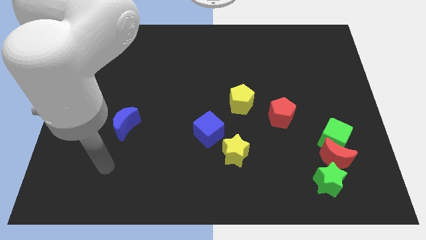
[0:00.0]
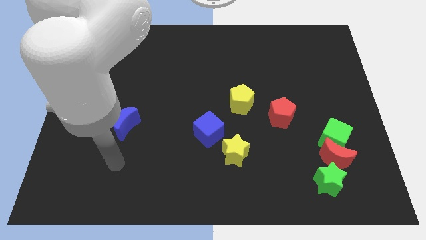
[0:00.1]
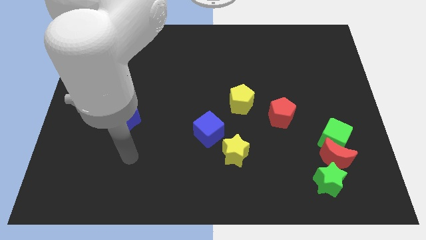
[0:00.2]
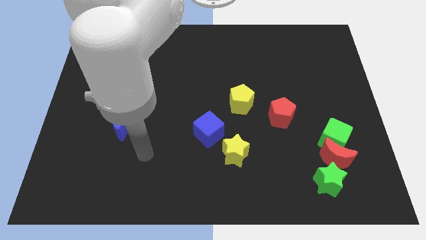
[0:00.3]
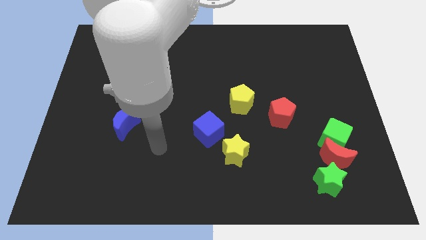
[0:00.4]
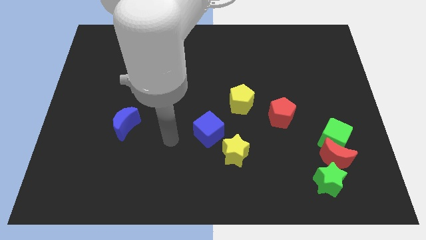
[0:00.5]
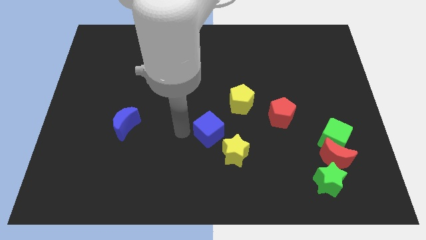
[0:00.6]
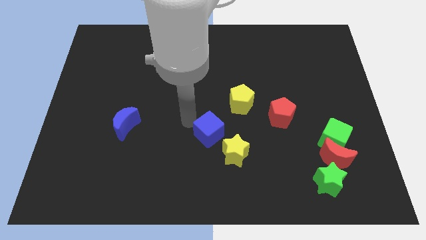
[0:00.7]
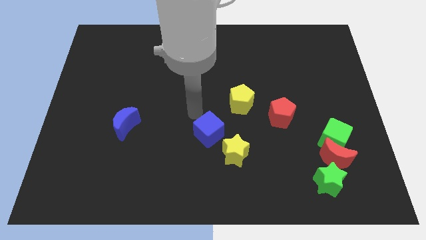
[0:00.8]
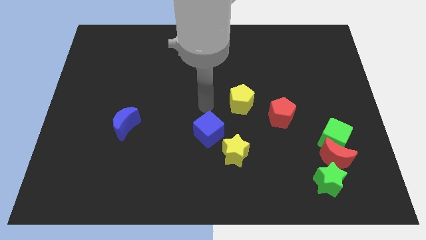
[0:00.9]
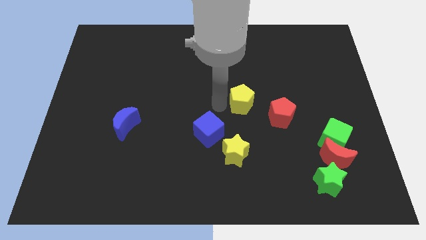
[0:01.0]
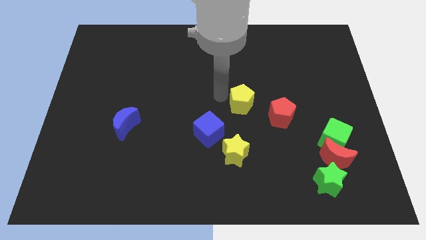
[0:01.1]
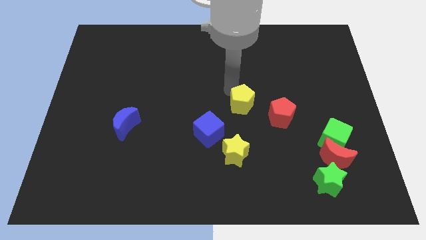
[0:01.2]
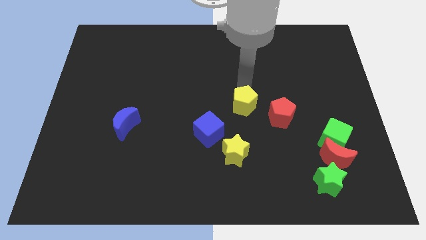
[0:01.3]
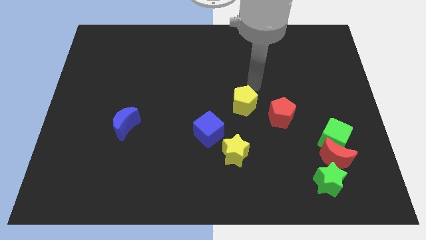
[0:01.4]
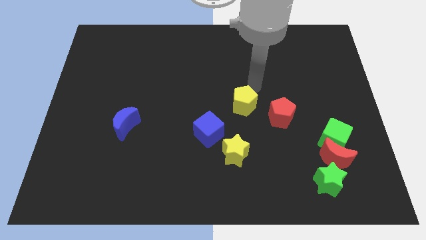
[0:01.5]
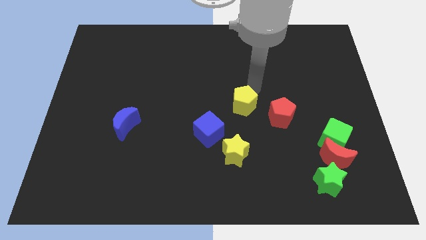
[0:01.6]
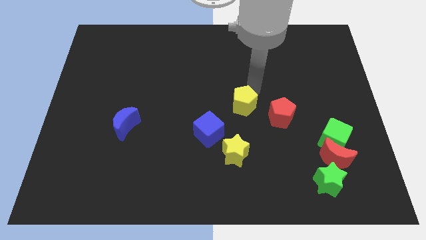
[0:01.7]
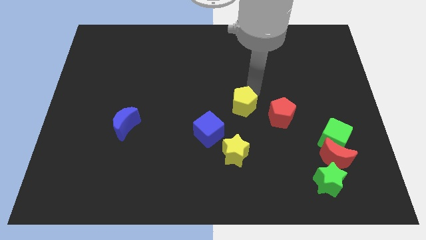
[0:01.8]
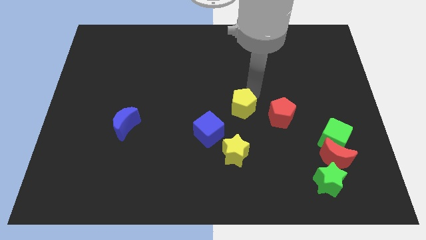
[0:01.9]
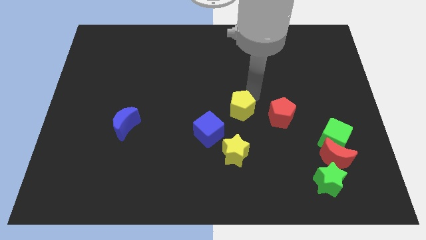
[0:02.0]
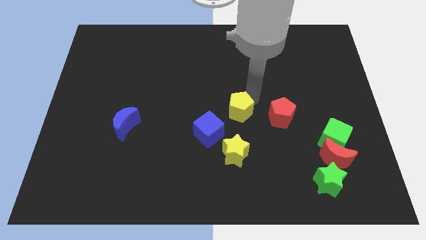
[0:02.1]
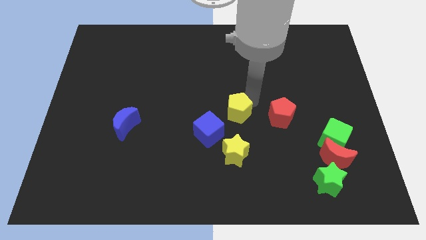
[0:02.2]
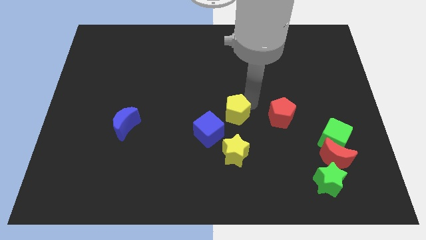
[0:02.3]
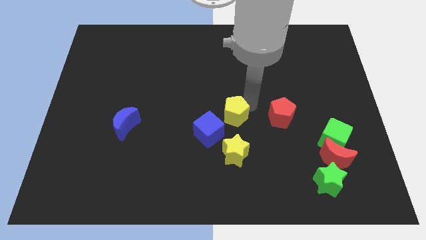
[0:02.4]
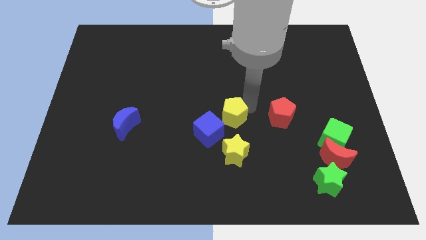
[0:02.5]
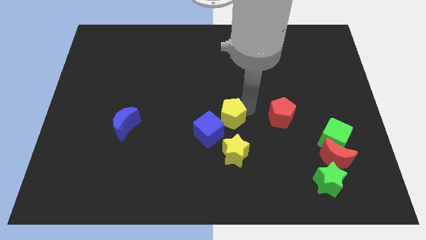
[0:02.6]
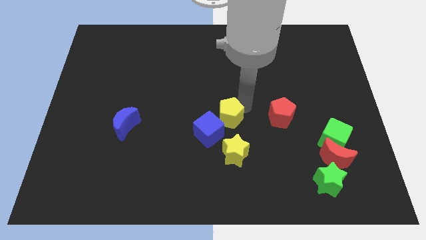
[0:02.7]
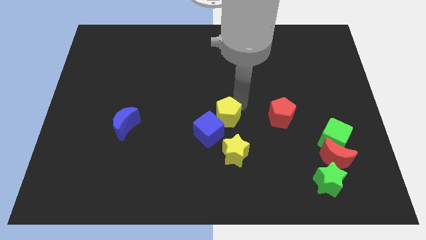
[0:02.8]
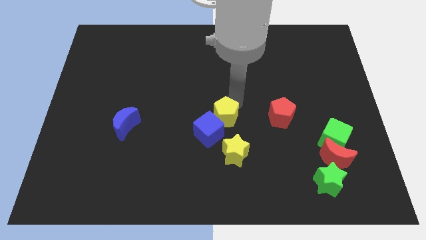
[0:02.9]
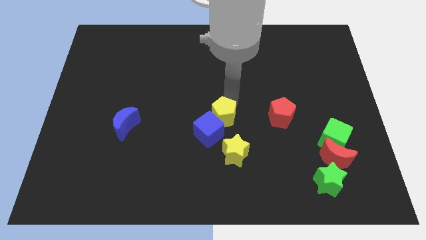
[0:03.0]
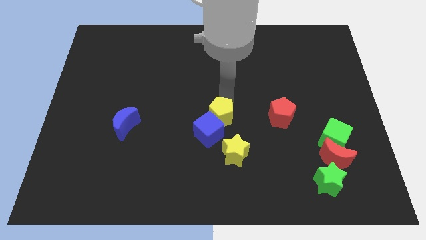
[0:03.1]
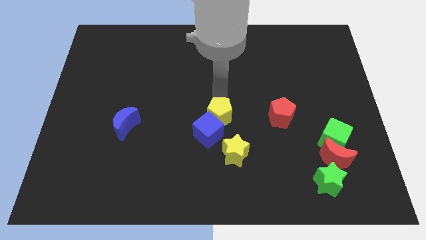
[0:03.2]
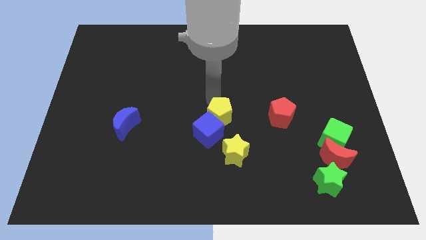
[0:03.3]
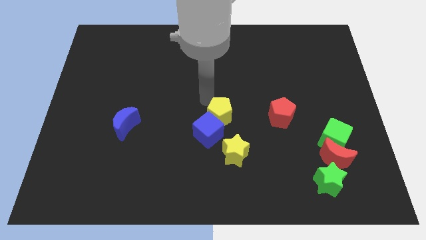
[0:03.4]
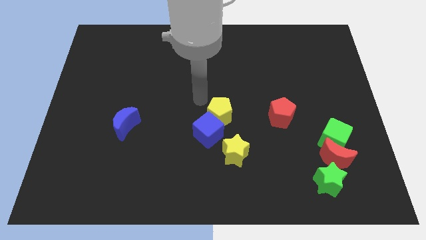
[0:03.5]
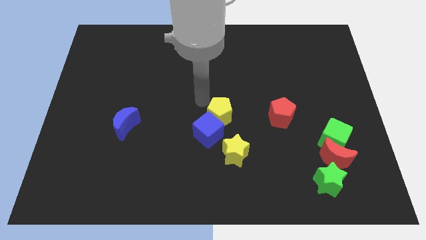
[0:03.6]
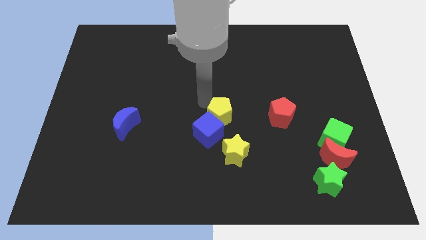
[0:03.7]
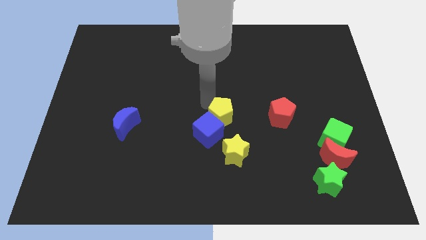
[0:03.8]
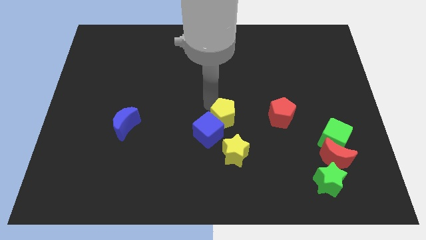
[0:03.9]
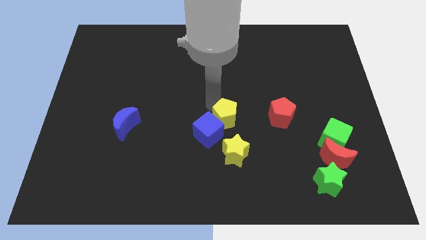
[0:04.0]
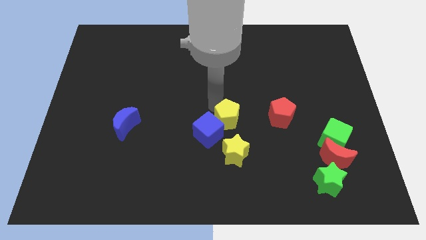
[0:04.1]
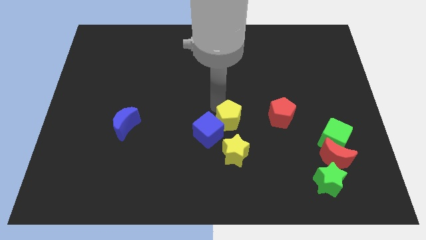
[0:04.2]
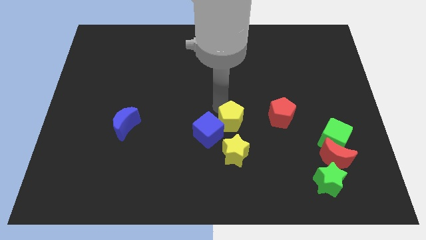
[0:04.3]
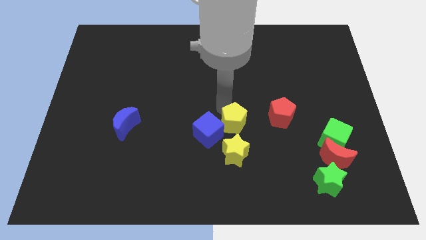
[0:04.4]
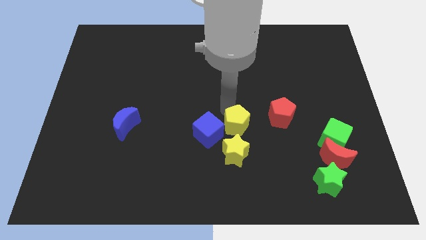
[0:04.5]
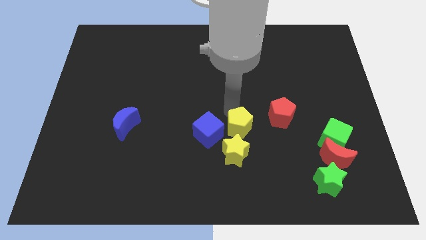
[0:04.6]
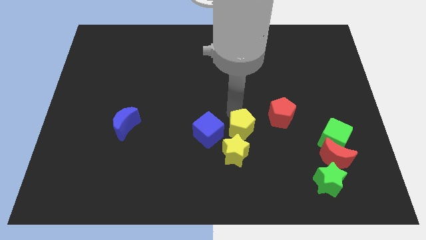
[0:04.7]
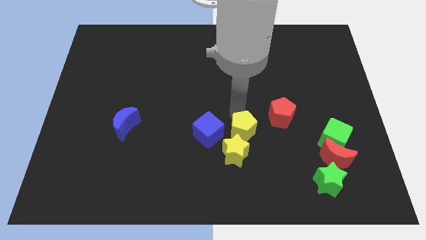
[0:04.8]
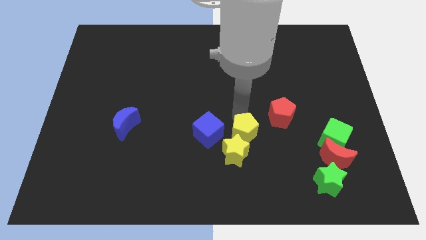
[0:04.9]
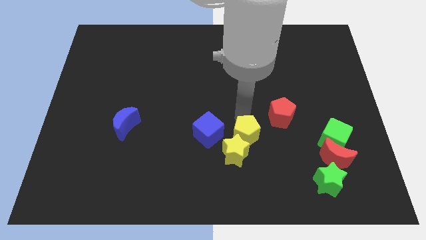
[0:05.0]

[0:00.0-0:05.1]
push the yellow pentagon towards the yellow star

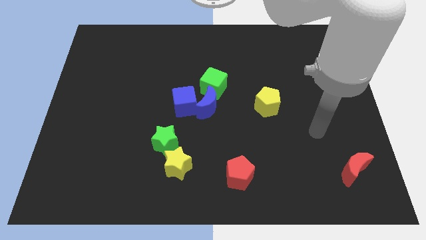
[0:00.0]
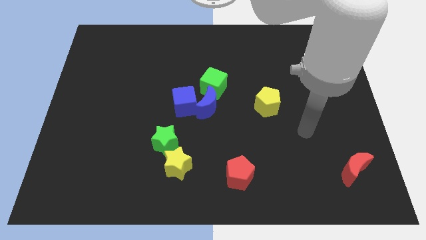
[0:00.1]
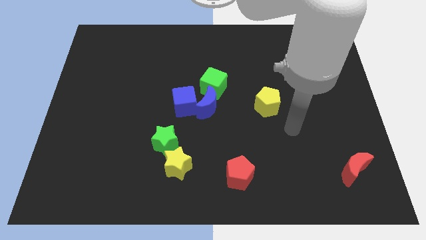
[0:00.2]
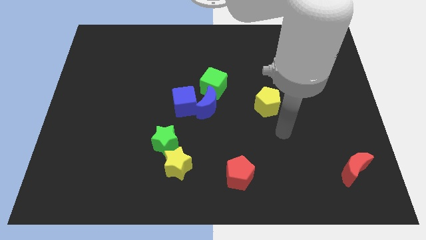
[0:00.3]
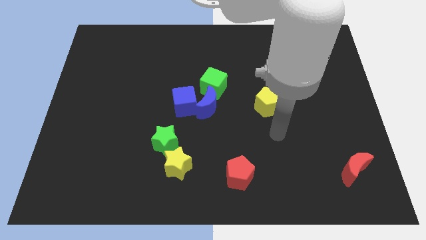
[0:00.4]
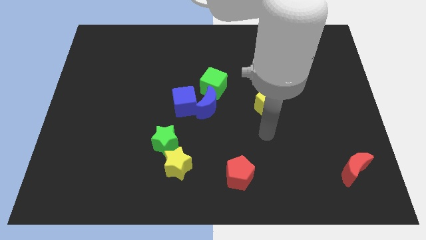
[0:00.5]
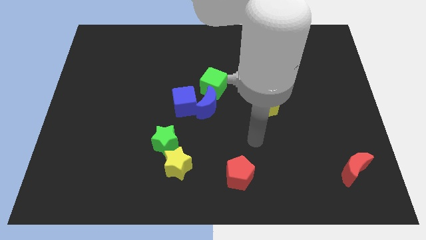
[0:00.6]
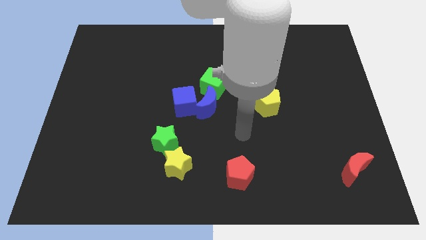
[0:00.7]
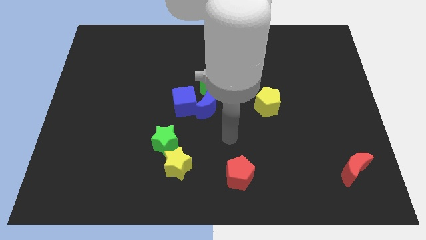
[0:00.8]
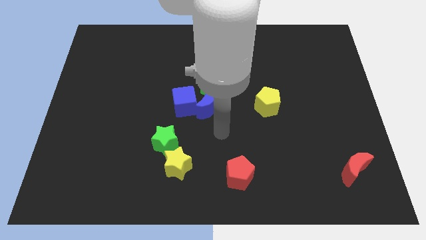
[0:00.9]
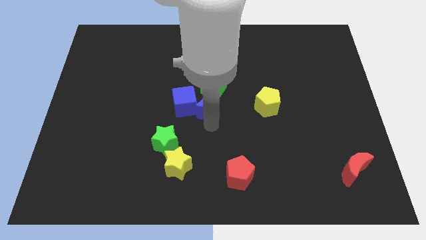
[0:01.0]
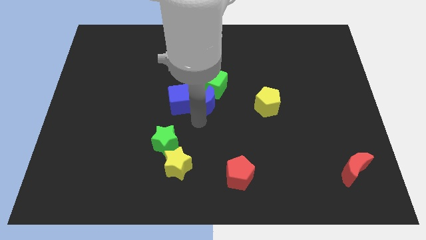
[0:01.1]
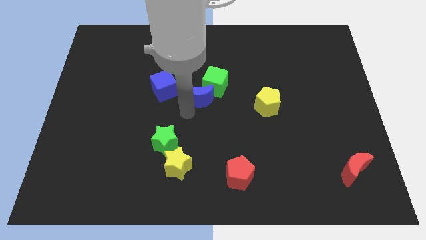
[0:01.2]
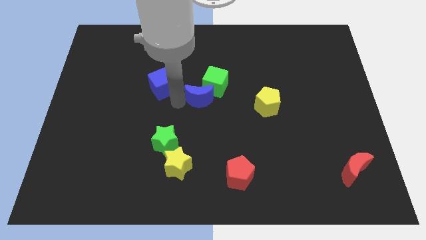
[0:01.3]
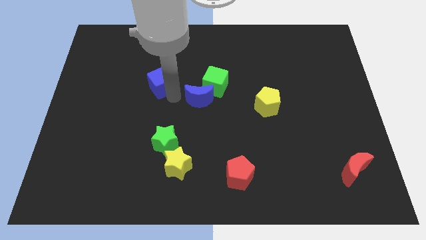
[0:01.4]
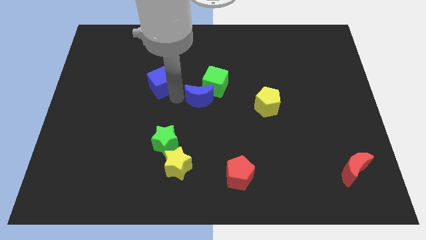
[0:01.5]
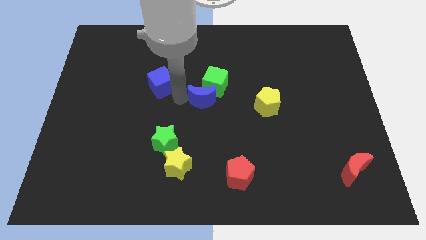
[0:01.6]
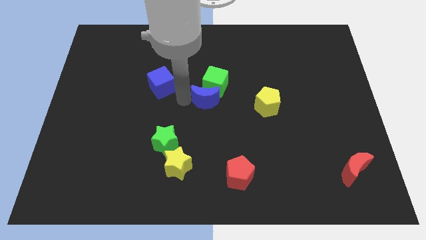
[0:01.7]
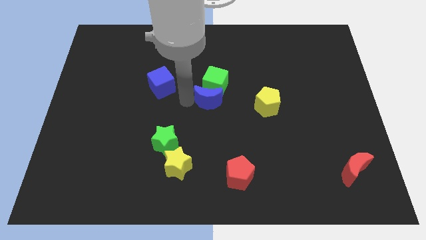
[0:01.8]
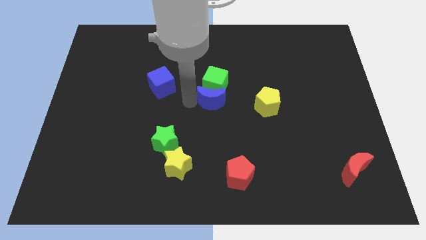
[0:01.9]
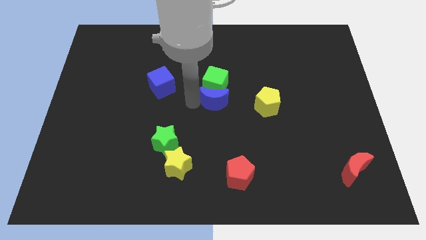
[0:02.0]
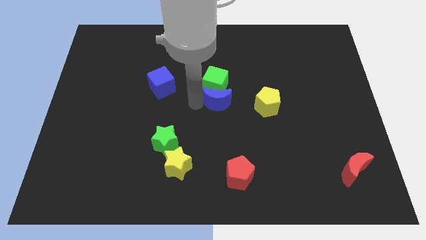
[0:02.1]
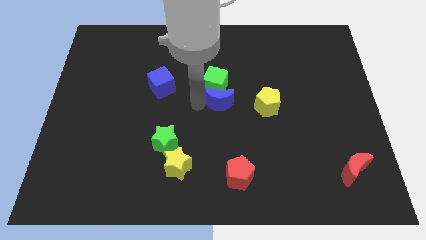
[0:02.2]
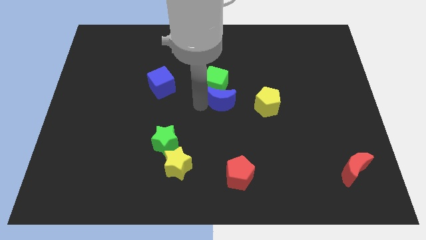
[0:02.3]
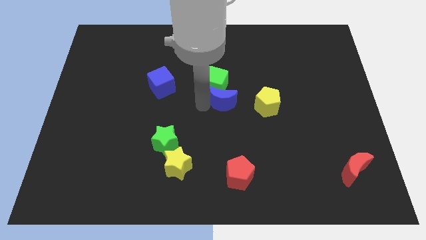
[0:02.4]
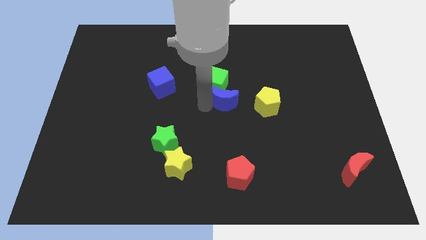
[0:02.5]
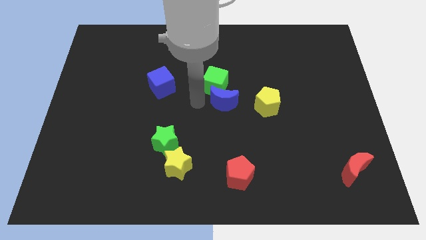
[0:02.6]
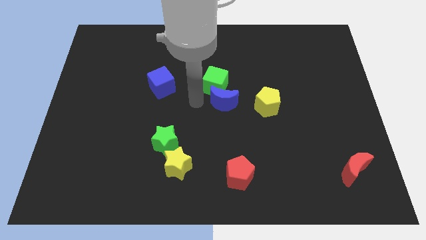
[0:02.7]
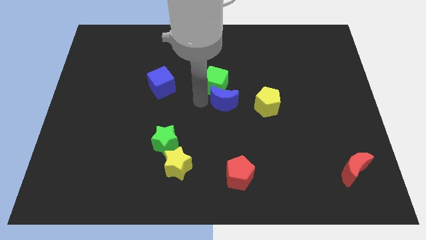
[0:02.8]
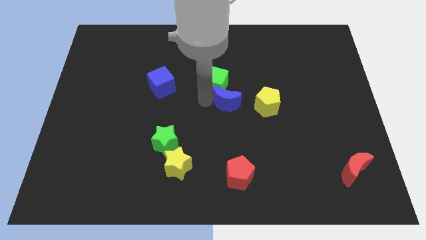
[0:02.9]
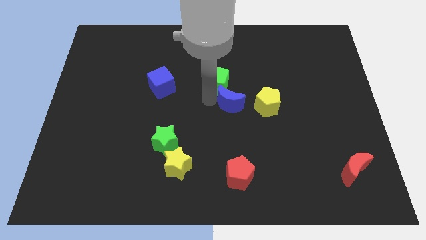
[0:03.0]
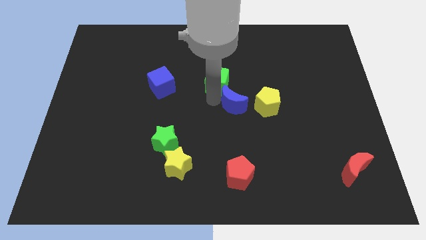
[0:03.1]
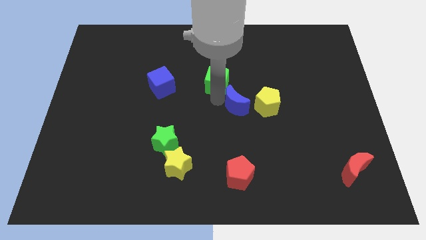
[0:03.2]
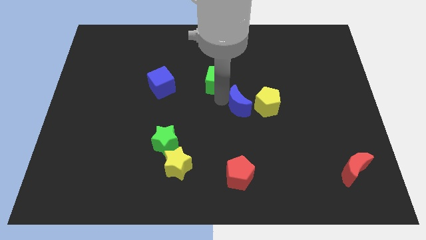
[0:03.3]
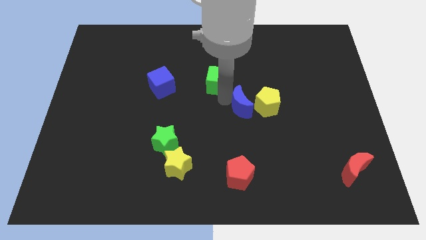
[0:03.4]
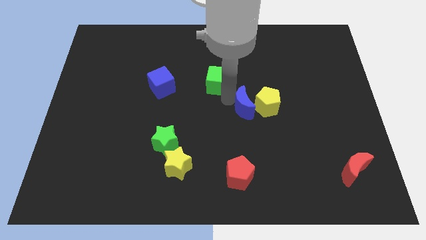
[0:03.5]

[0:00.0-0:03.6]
put the blue moon next to the yellow pentagon
